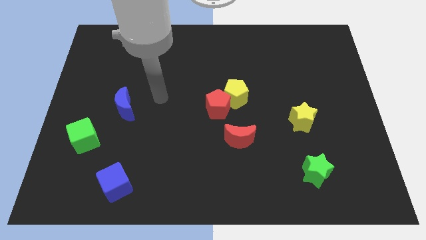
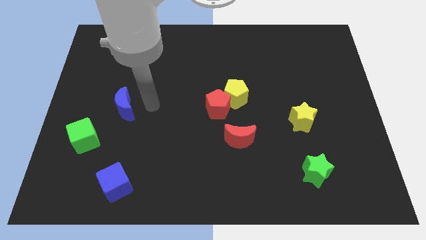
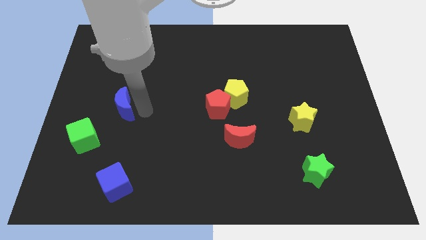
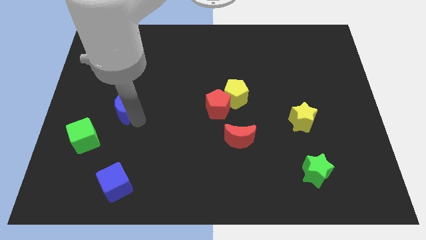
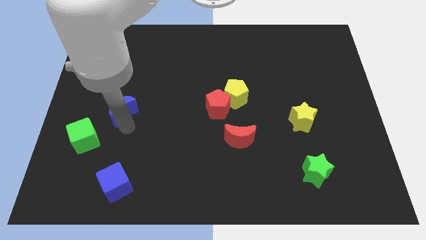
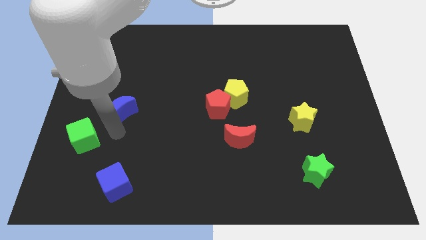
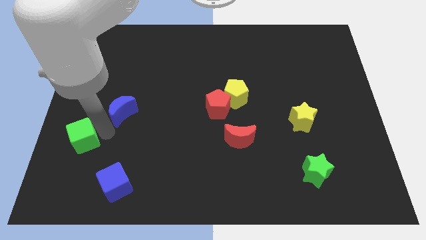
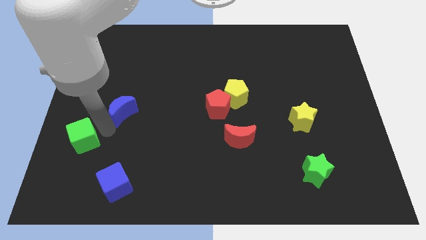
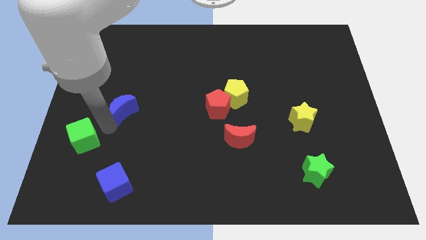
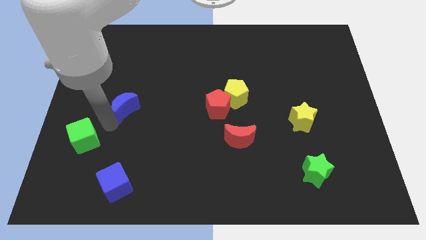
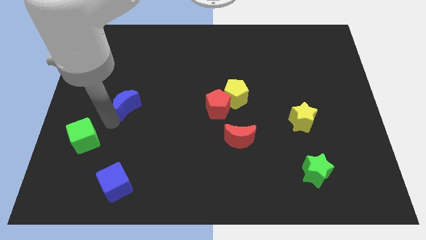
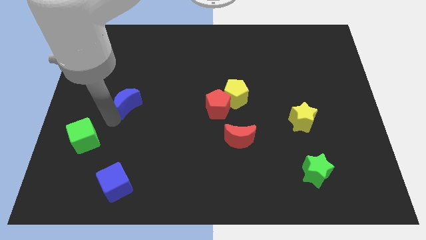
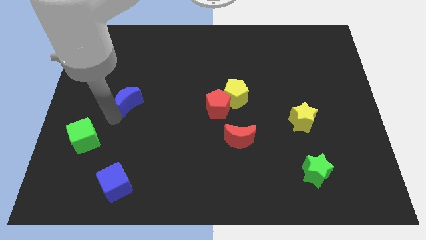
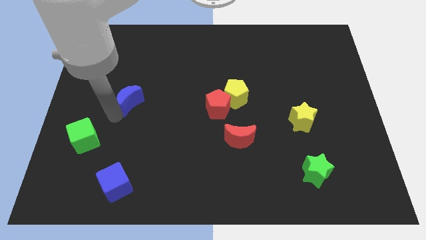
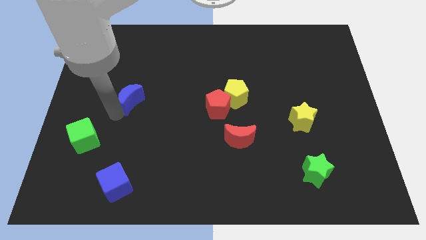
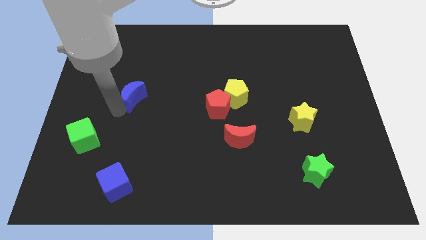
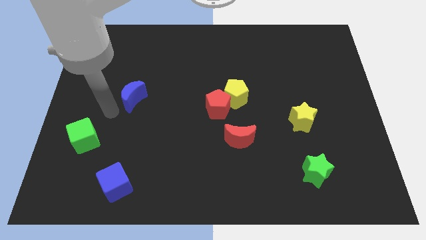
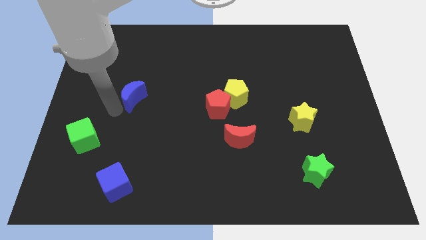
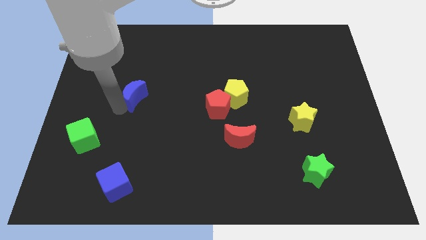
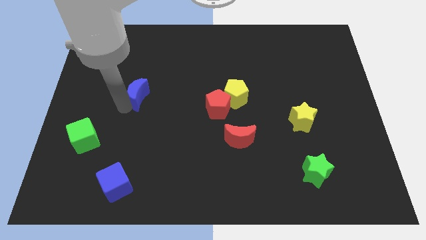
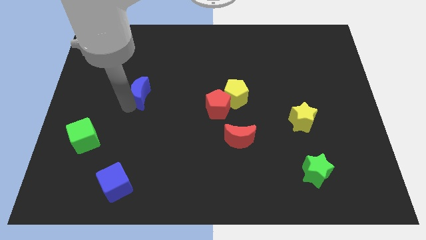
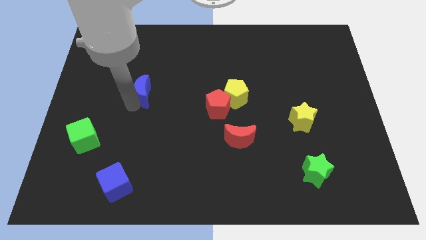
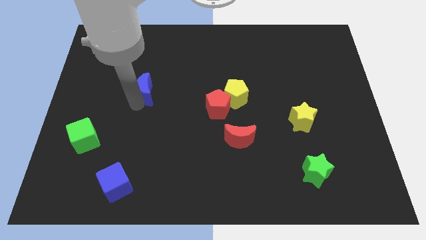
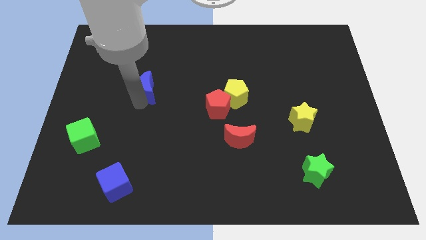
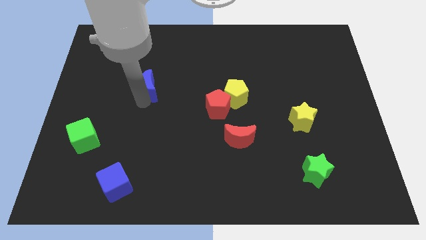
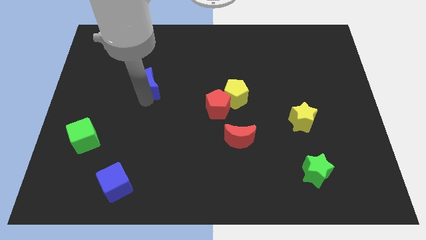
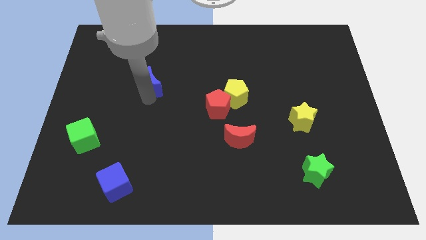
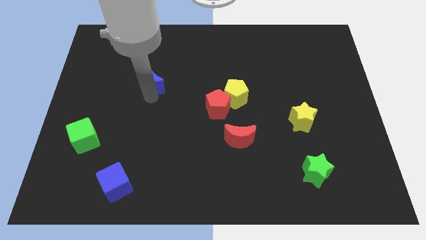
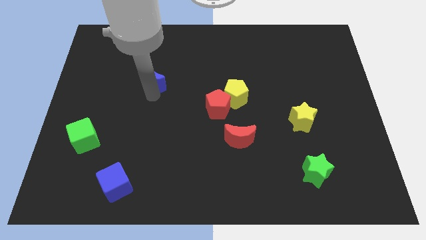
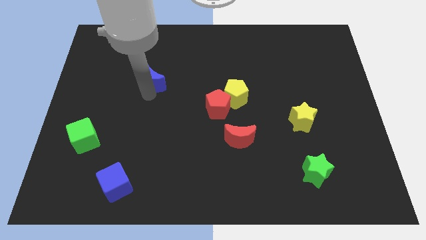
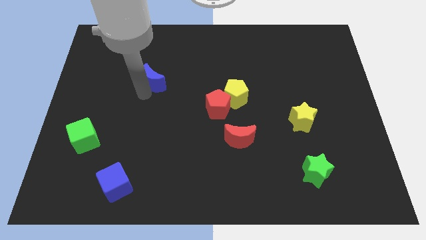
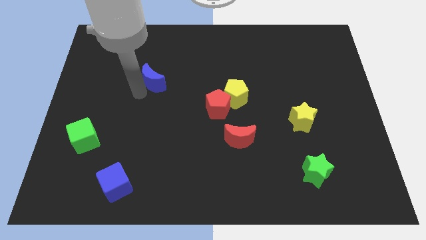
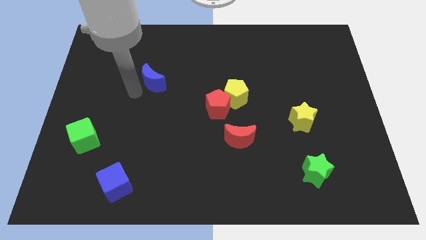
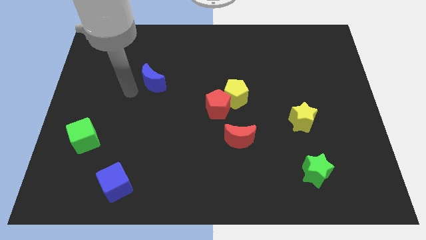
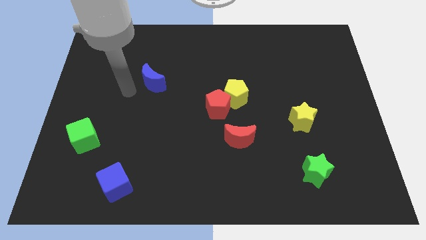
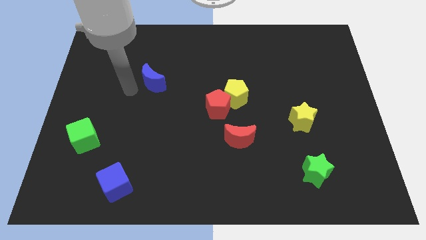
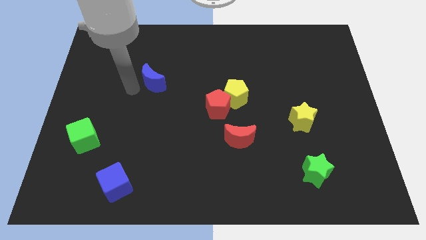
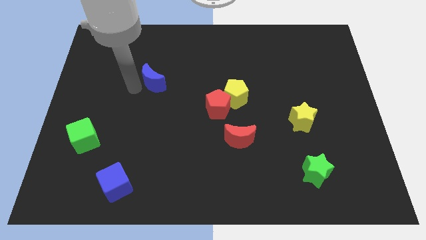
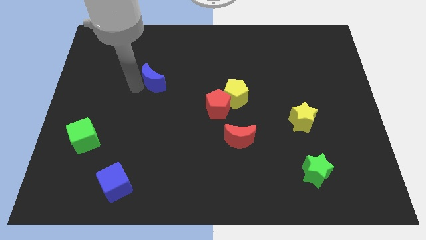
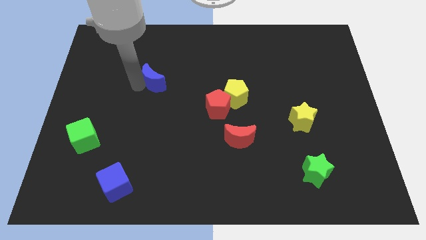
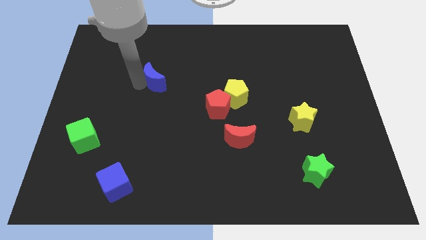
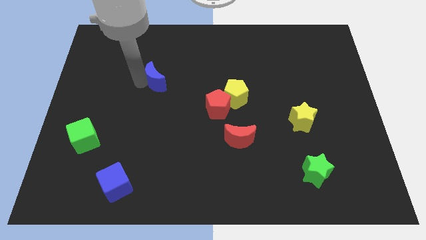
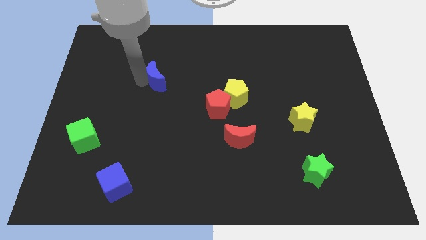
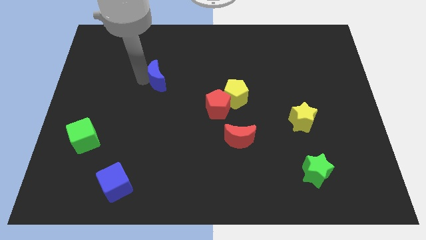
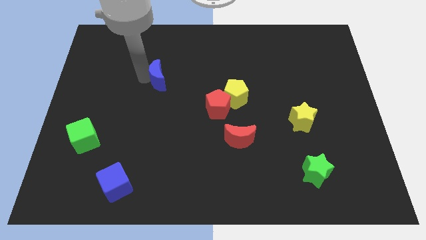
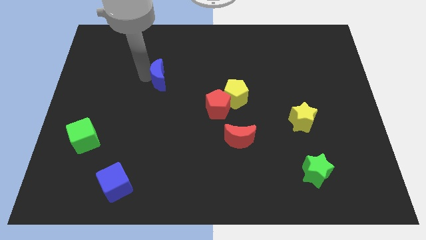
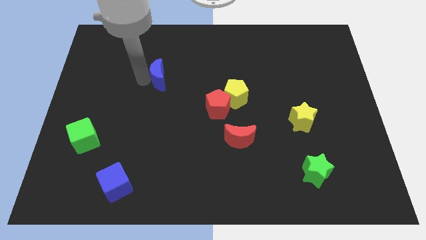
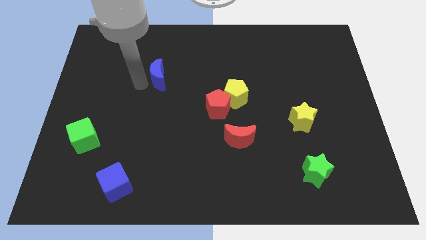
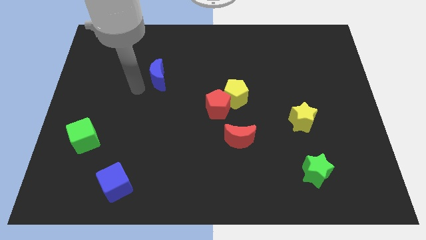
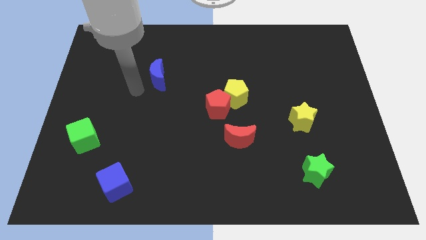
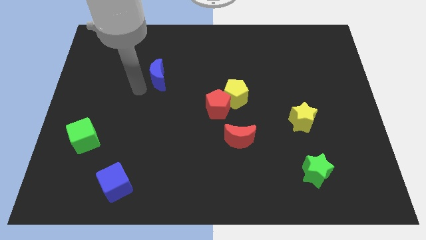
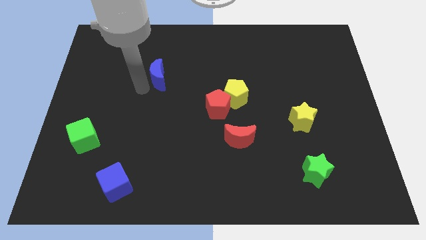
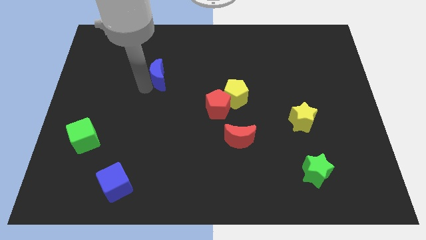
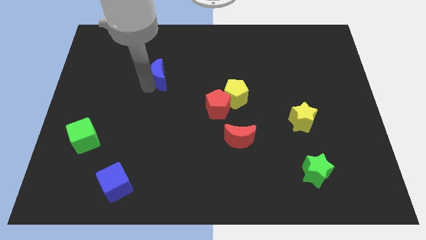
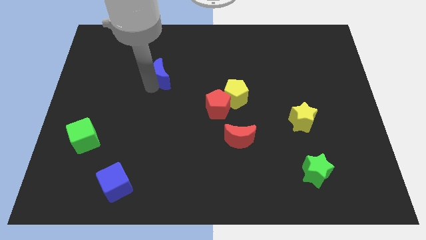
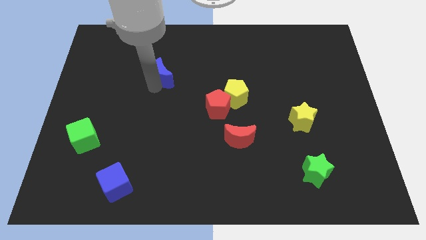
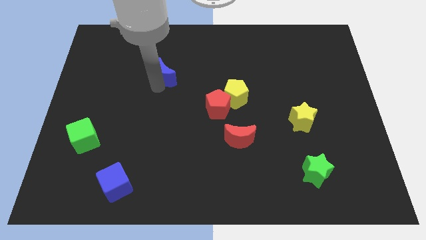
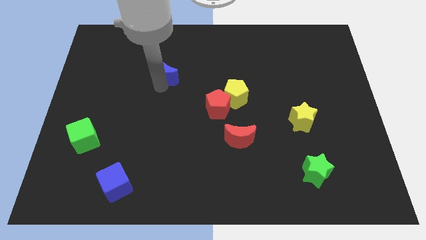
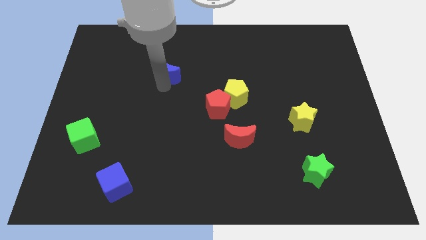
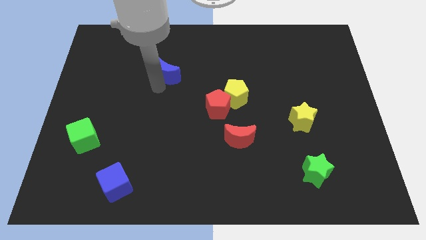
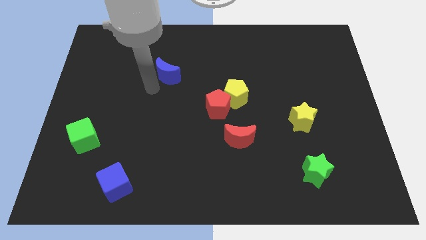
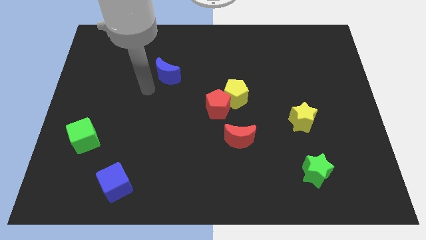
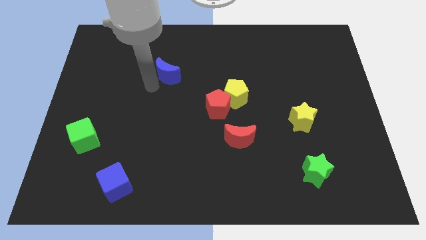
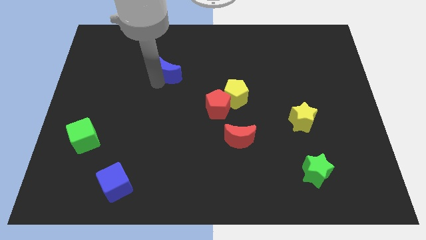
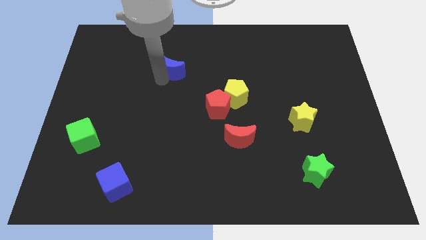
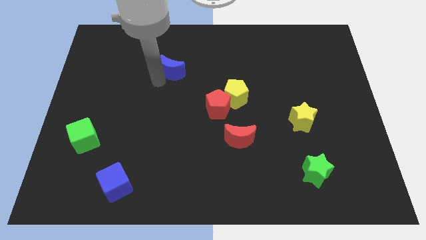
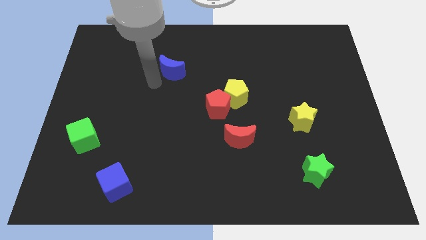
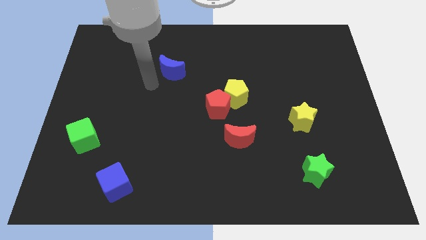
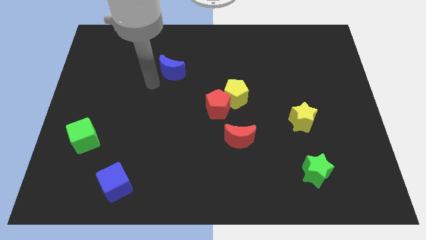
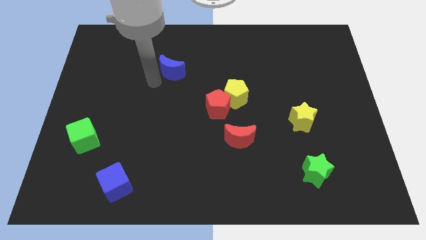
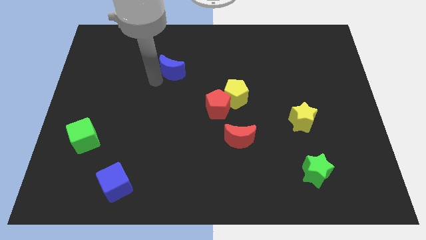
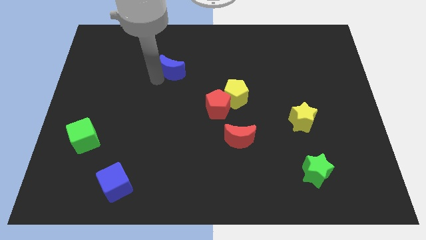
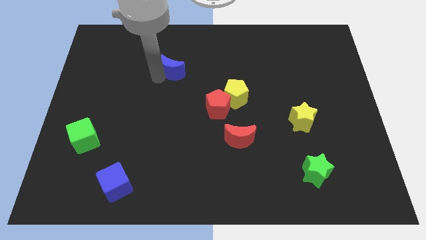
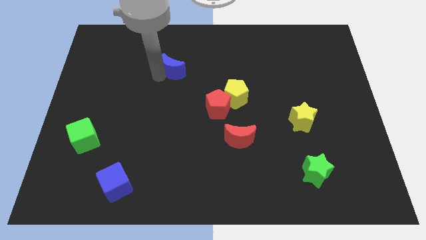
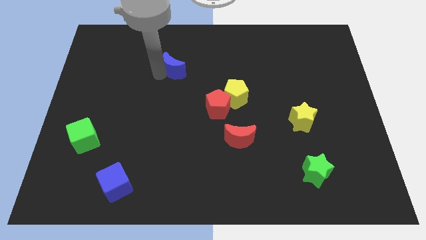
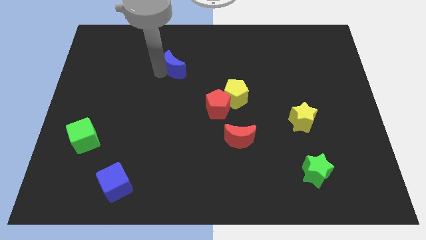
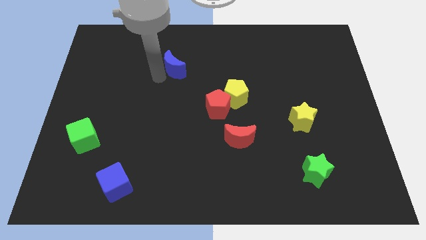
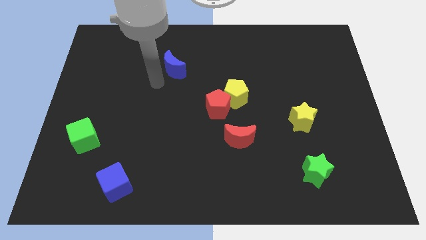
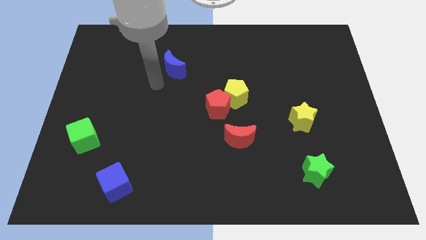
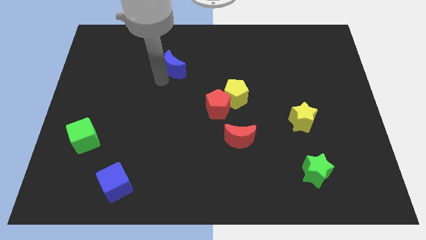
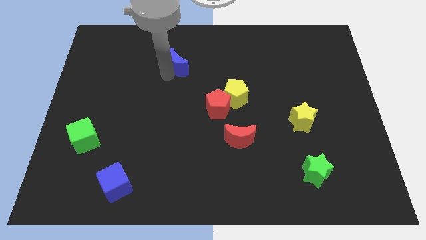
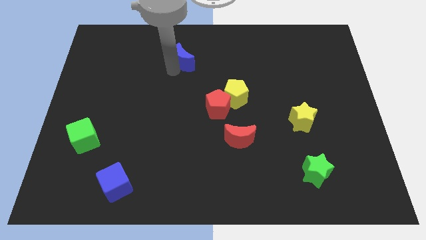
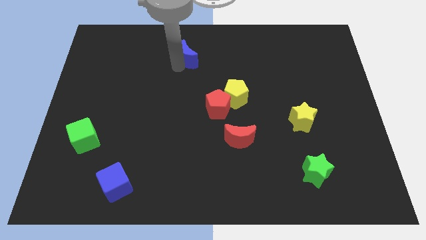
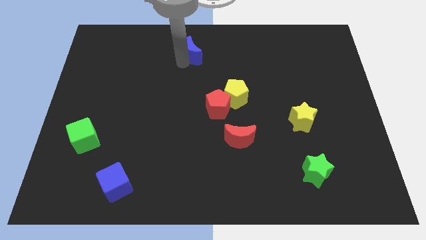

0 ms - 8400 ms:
move the blue moon to the towards your base
